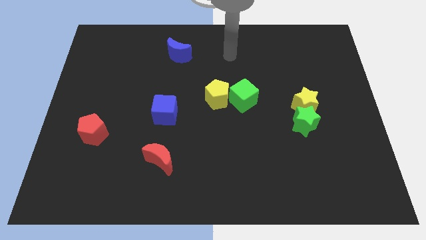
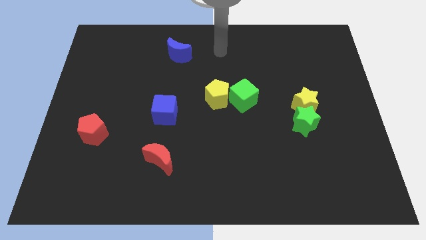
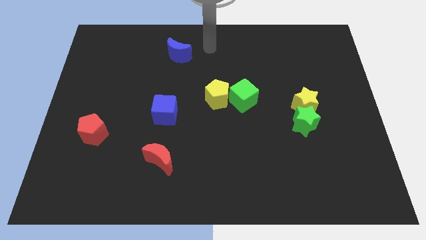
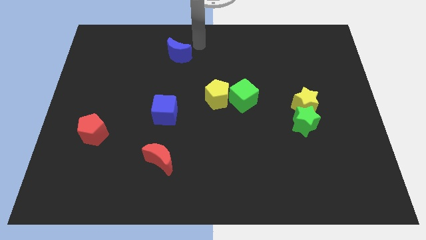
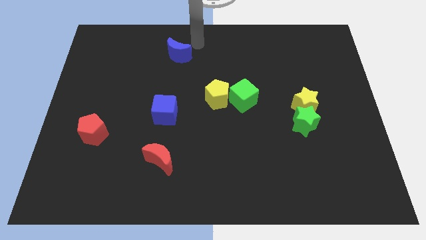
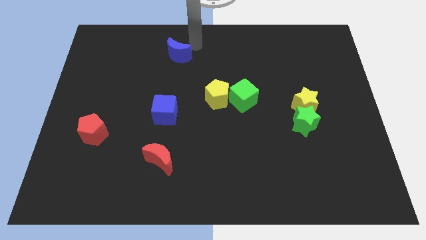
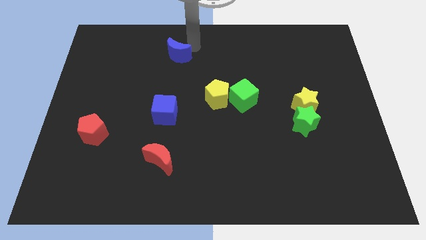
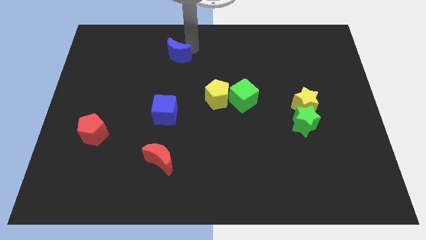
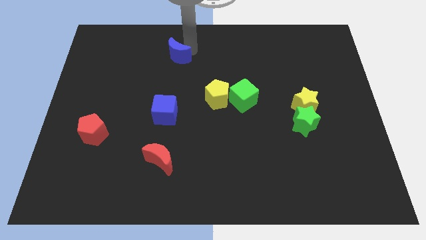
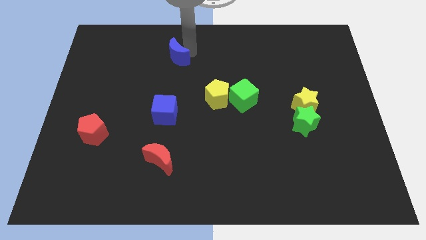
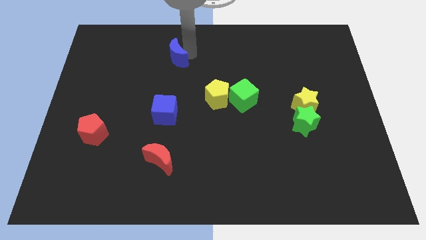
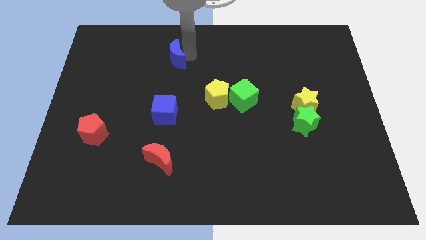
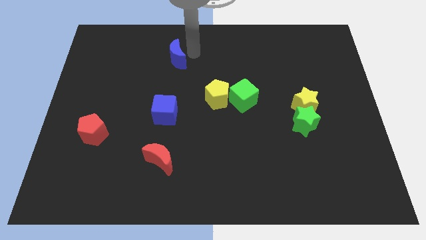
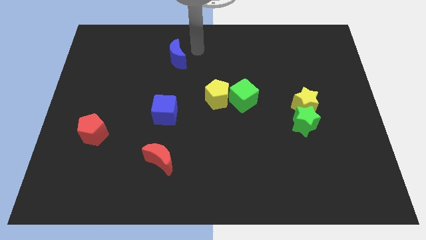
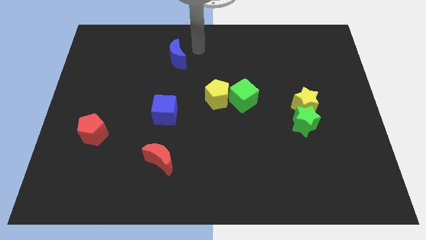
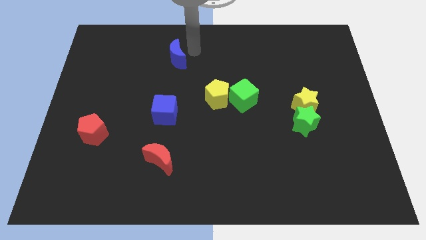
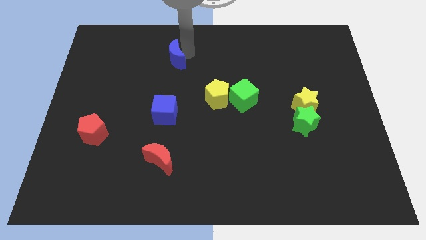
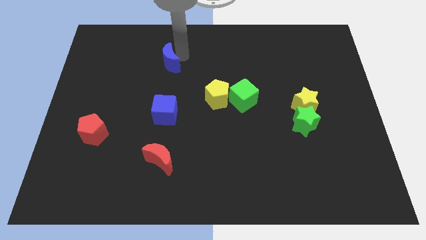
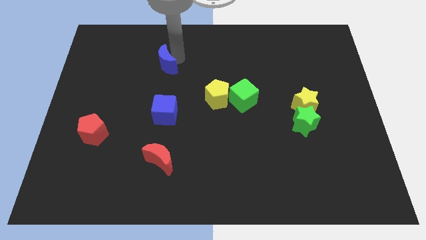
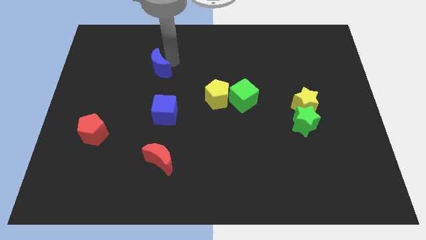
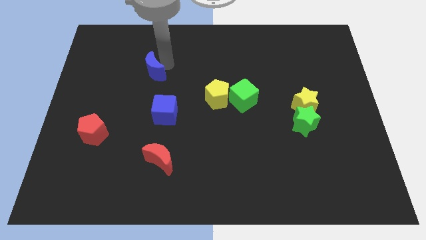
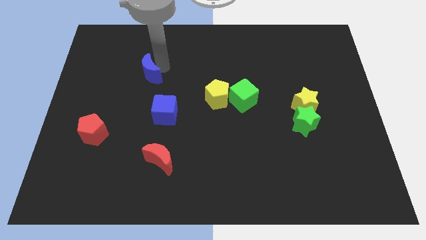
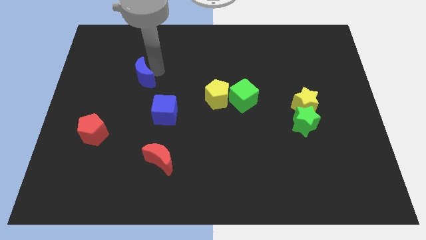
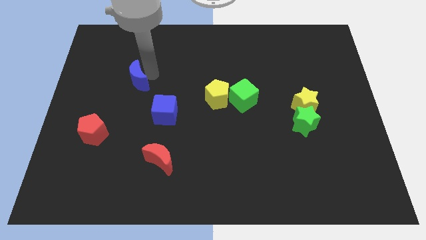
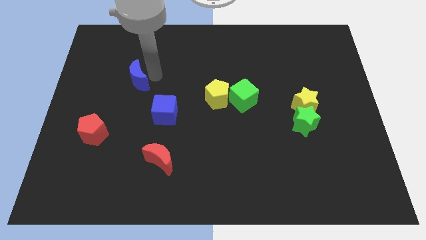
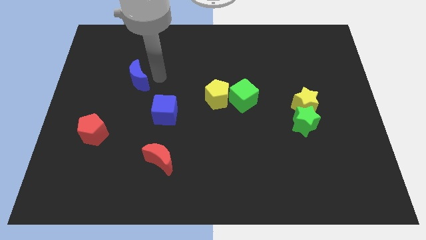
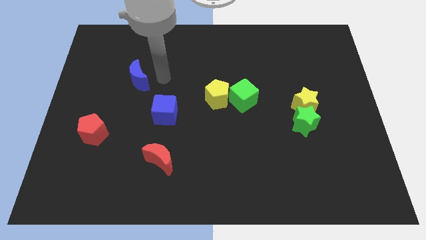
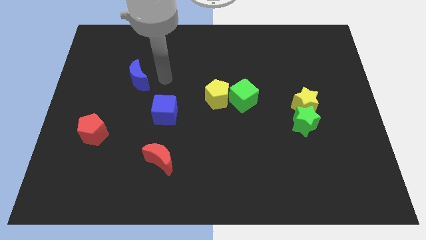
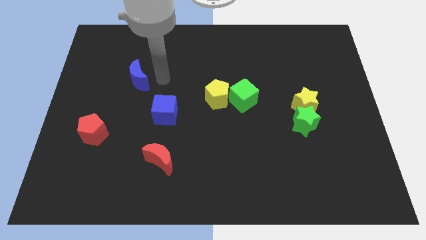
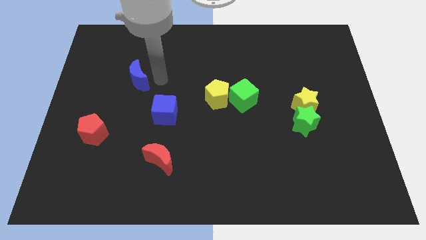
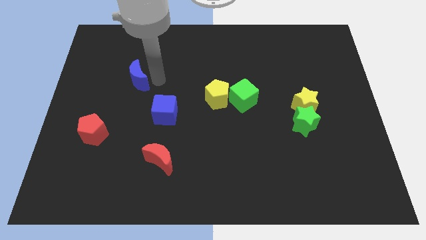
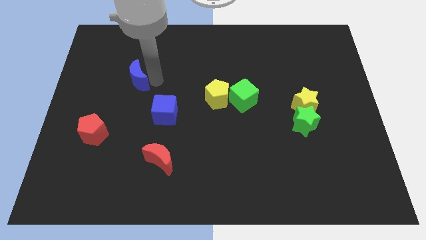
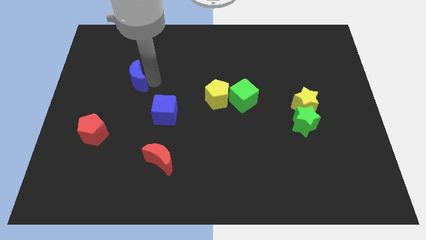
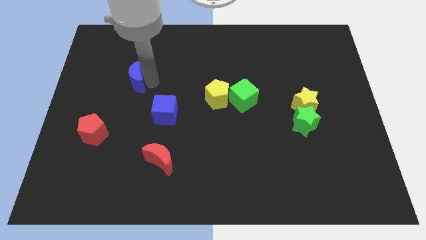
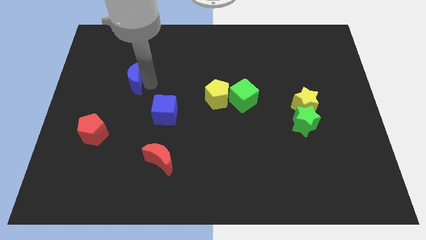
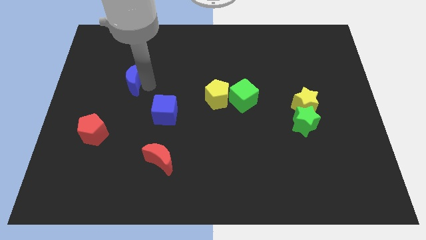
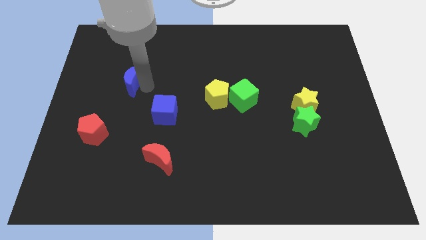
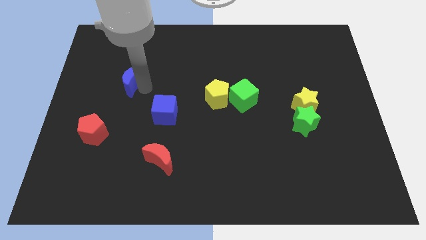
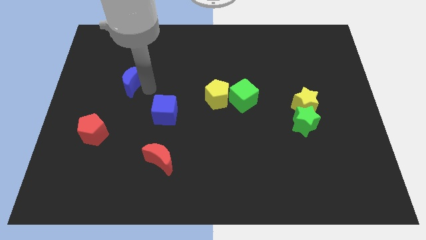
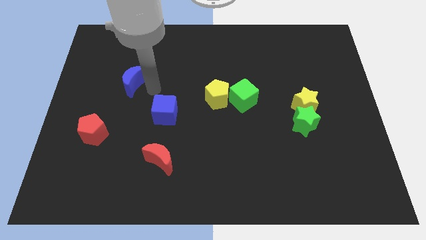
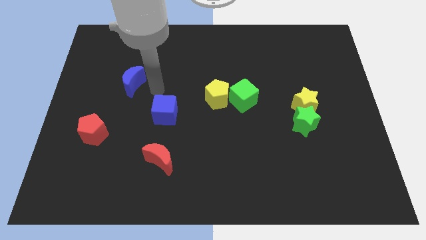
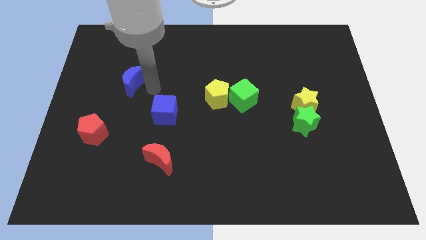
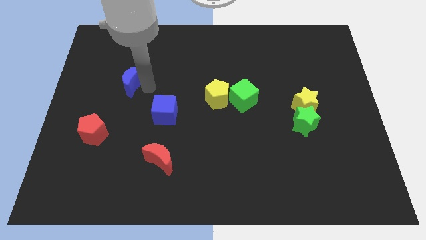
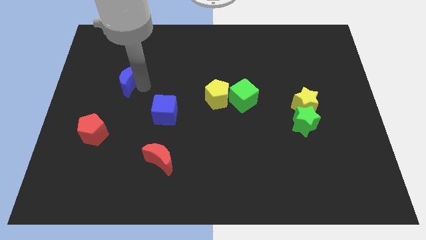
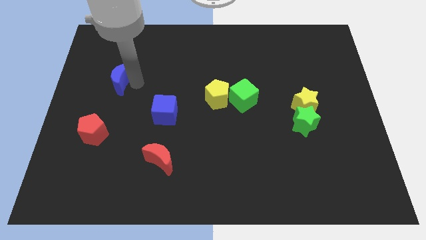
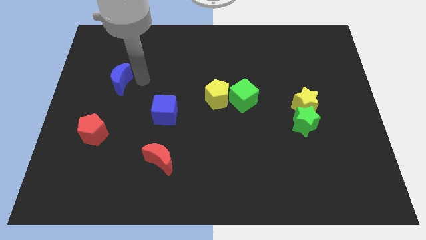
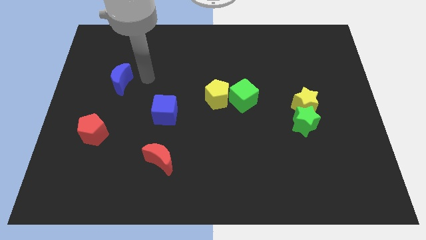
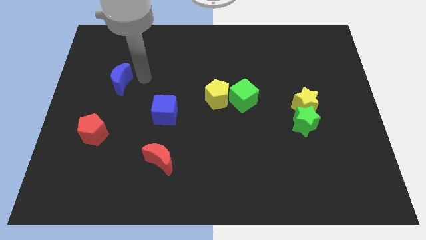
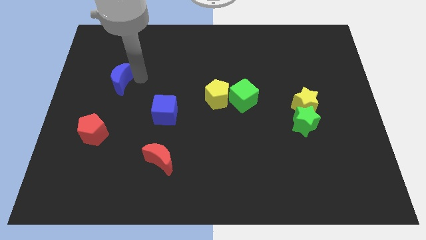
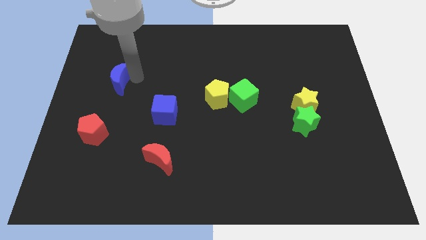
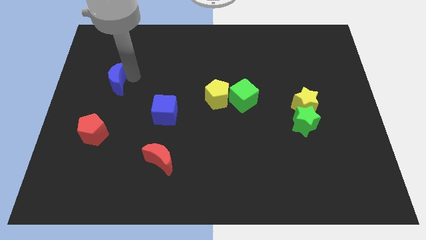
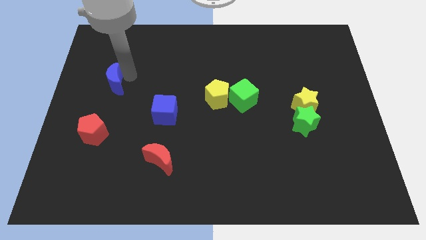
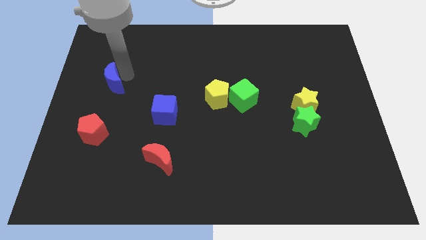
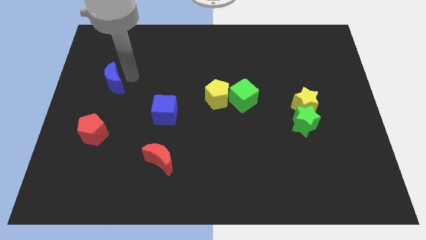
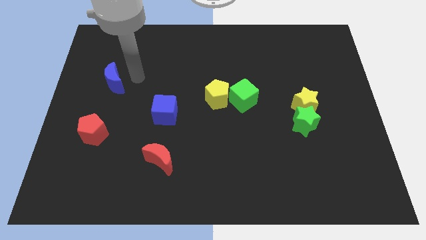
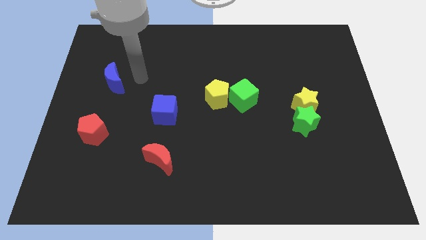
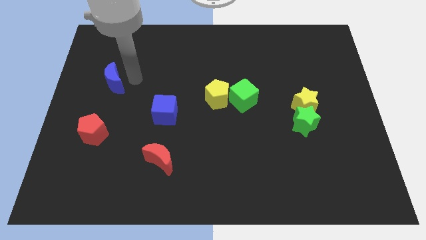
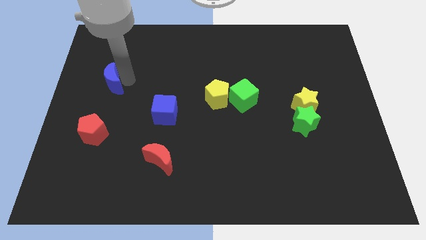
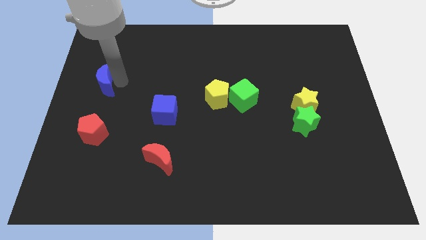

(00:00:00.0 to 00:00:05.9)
put the blue moon to the center left
